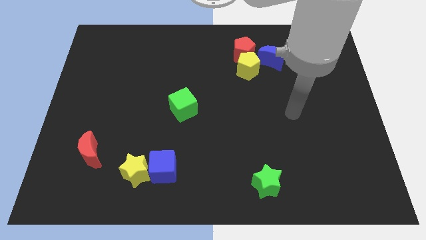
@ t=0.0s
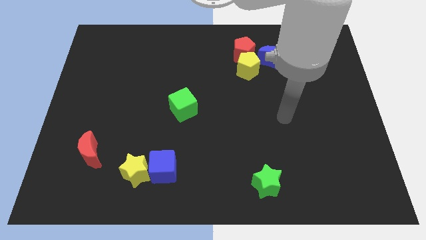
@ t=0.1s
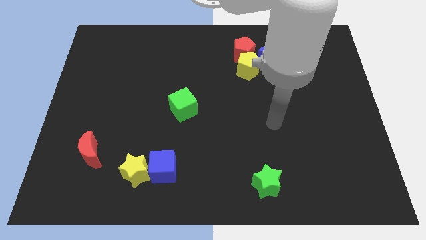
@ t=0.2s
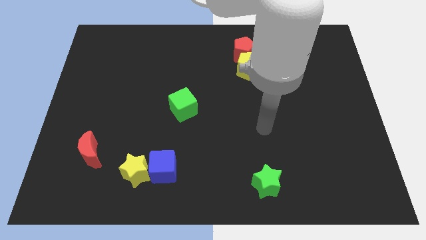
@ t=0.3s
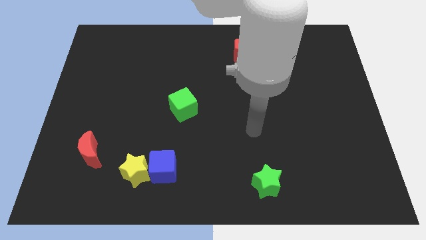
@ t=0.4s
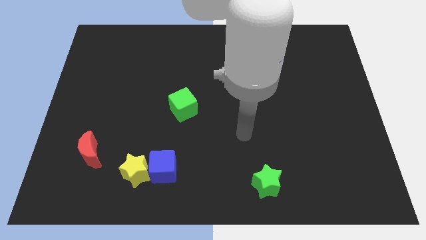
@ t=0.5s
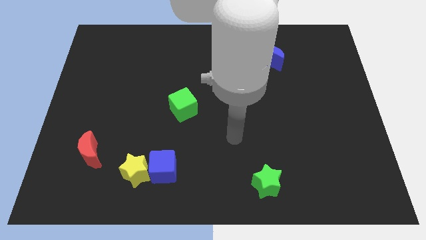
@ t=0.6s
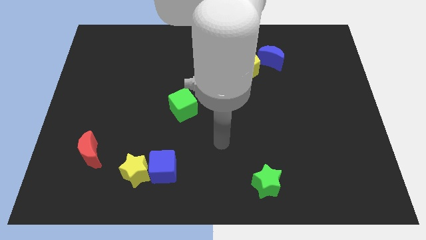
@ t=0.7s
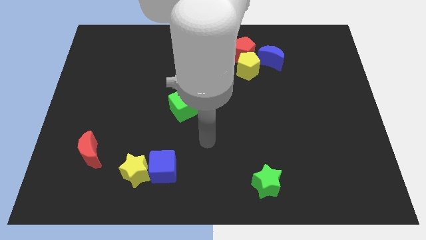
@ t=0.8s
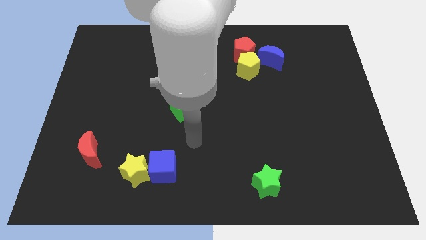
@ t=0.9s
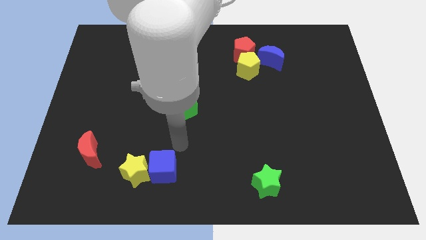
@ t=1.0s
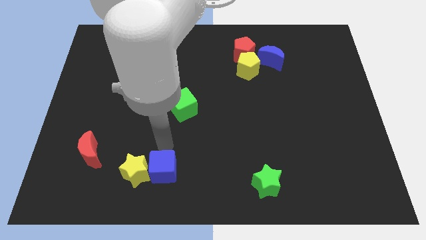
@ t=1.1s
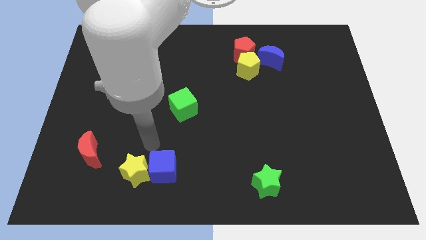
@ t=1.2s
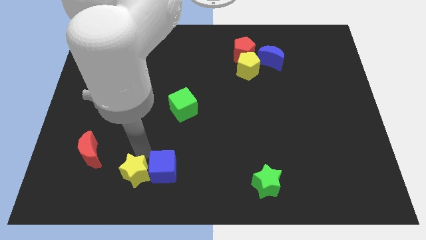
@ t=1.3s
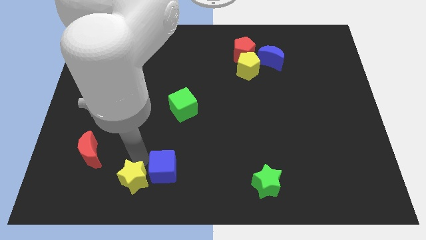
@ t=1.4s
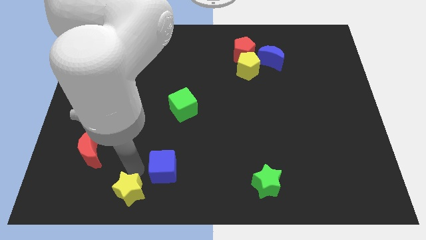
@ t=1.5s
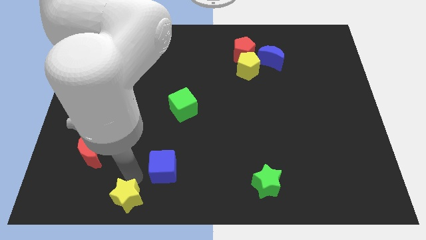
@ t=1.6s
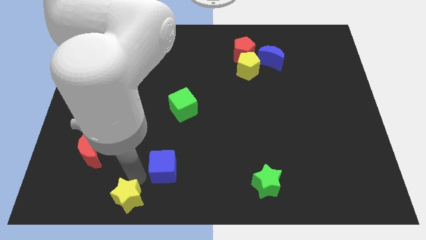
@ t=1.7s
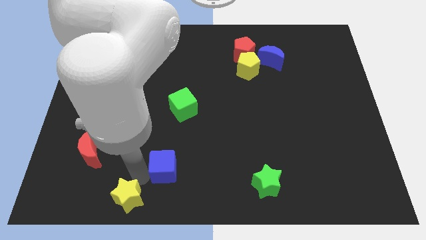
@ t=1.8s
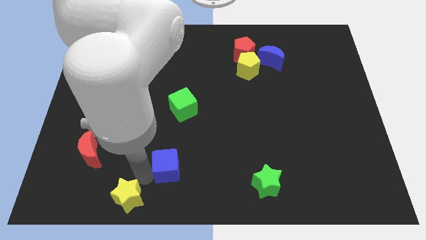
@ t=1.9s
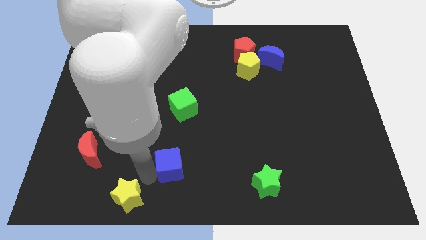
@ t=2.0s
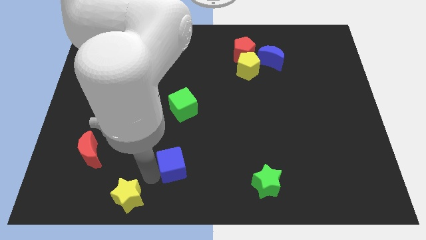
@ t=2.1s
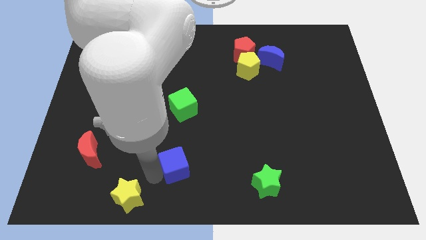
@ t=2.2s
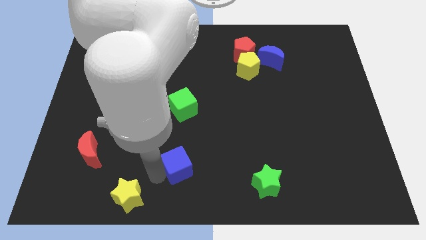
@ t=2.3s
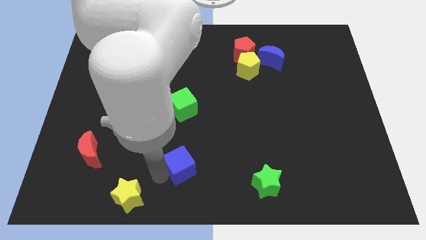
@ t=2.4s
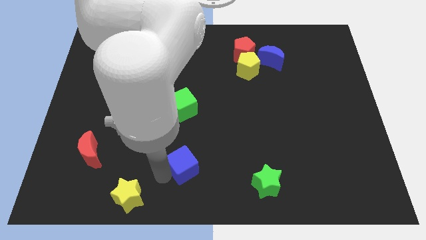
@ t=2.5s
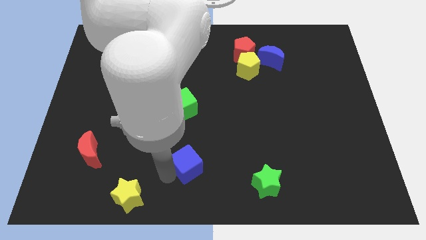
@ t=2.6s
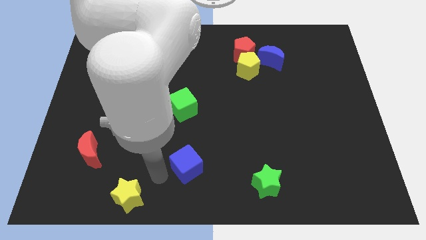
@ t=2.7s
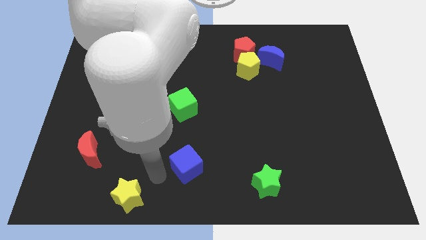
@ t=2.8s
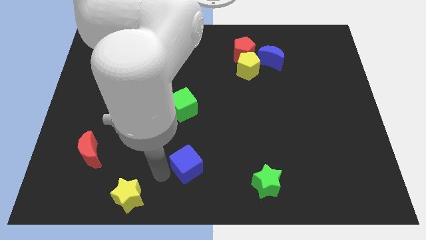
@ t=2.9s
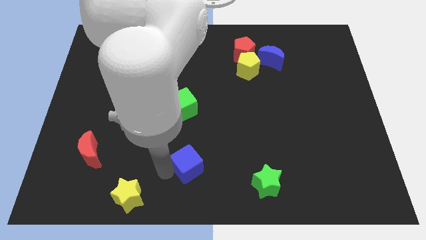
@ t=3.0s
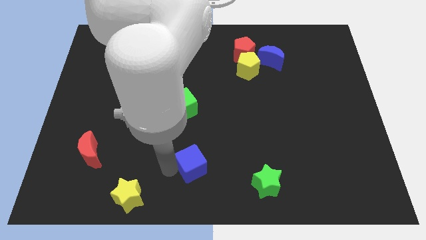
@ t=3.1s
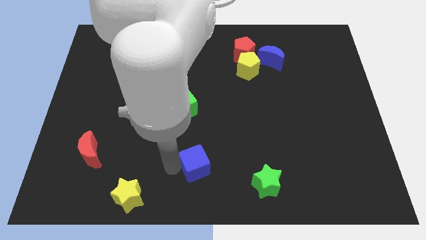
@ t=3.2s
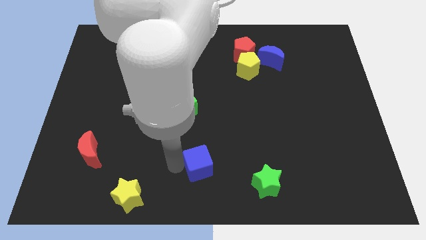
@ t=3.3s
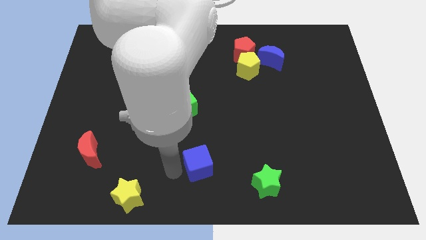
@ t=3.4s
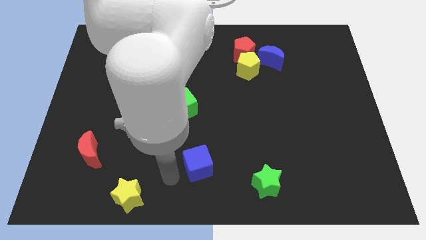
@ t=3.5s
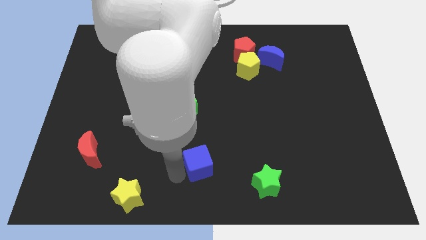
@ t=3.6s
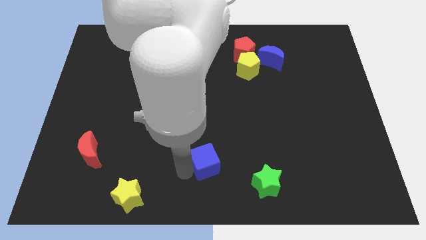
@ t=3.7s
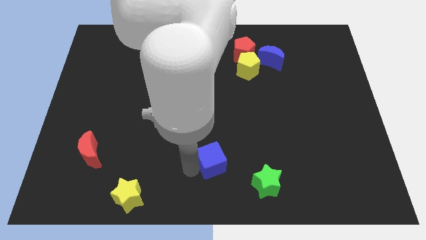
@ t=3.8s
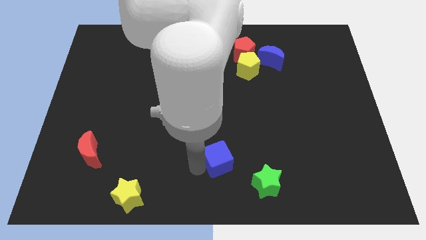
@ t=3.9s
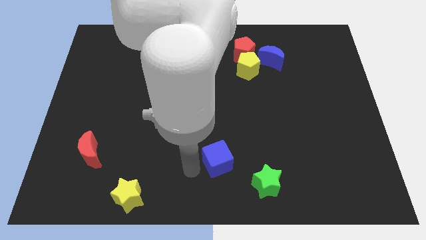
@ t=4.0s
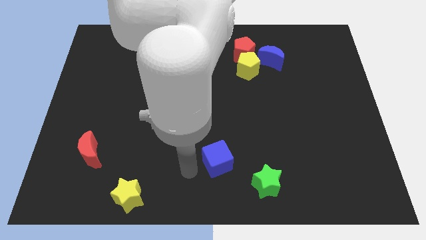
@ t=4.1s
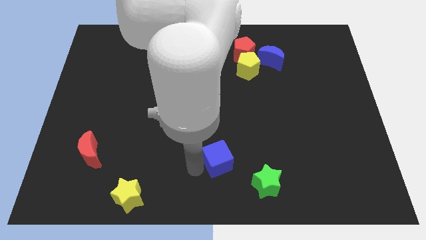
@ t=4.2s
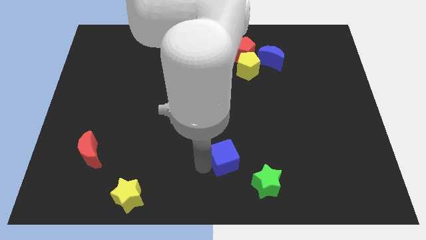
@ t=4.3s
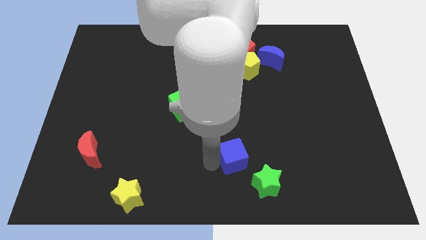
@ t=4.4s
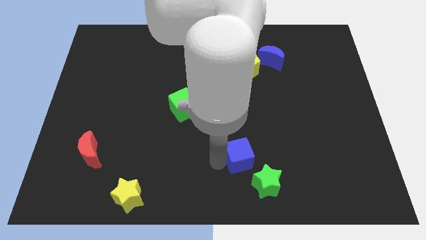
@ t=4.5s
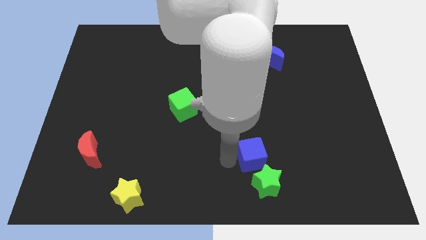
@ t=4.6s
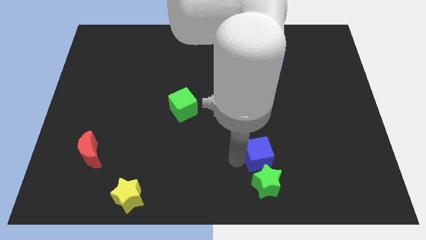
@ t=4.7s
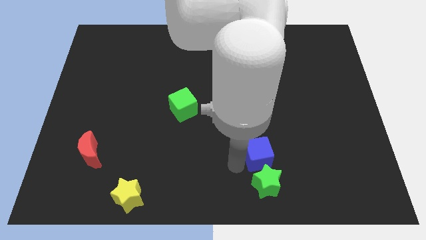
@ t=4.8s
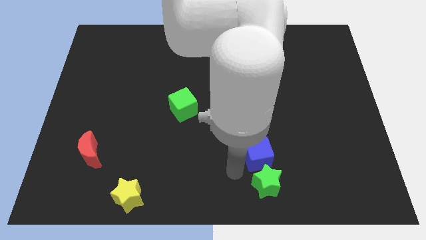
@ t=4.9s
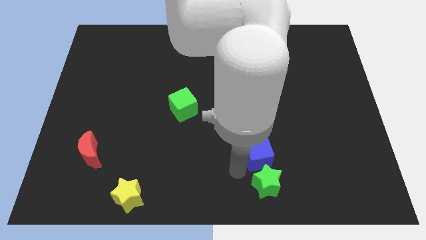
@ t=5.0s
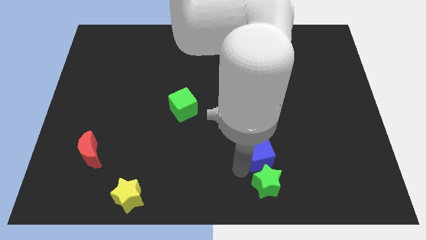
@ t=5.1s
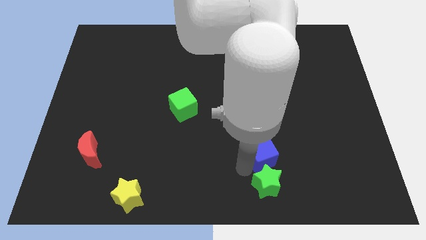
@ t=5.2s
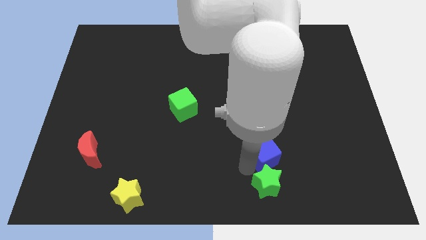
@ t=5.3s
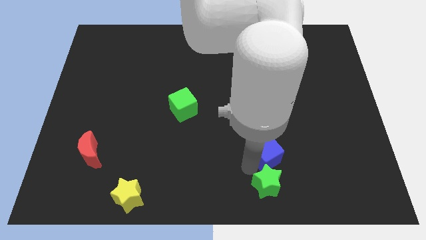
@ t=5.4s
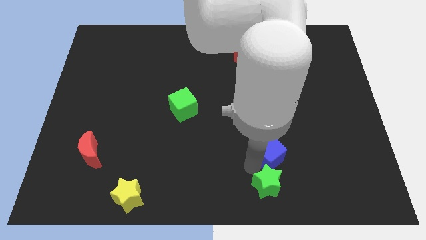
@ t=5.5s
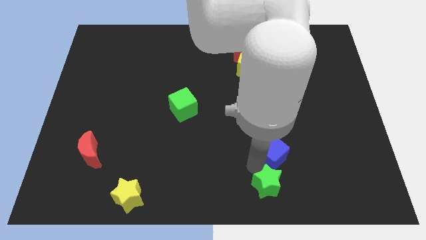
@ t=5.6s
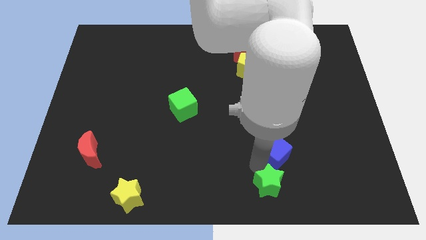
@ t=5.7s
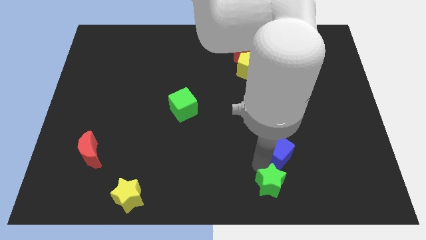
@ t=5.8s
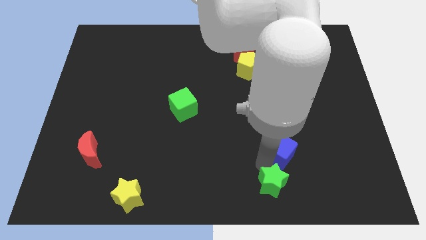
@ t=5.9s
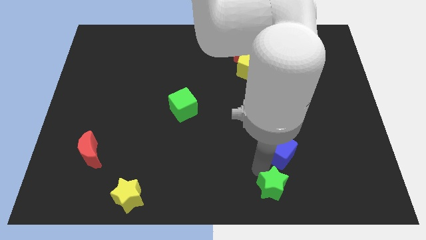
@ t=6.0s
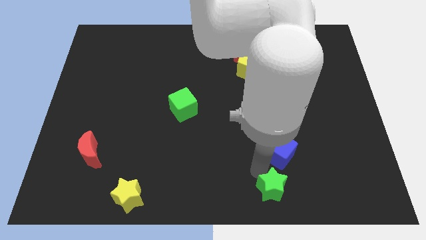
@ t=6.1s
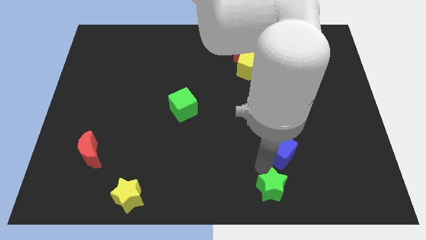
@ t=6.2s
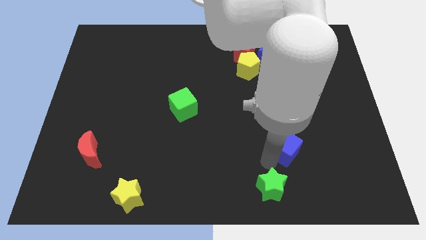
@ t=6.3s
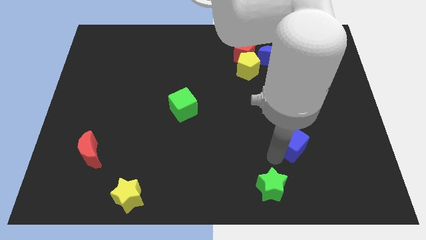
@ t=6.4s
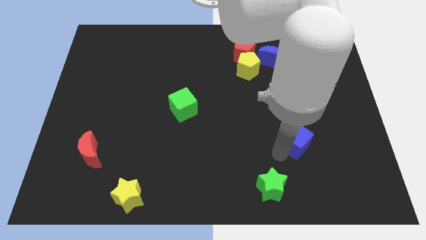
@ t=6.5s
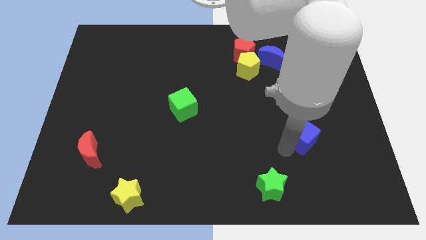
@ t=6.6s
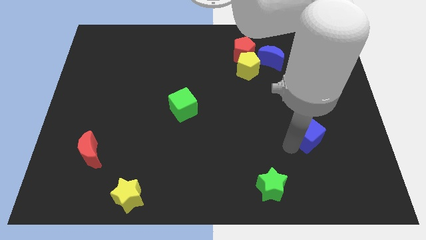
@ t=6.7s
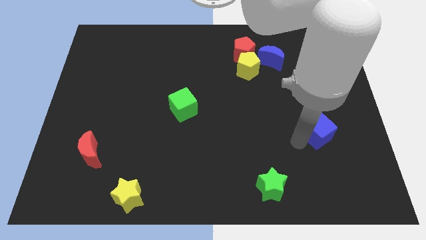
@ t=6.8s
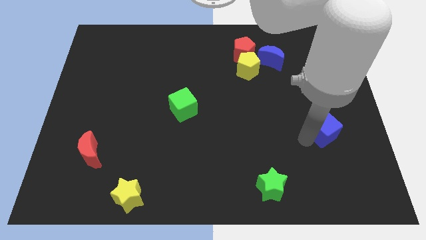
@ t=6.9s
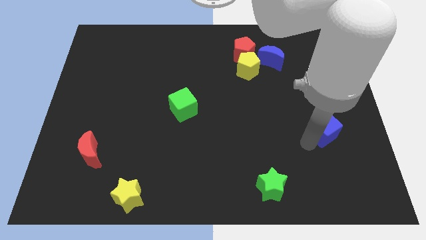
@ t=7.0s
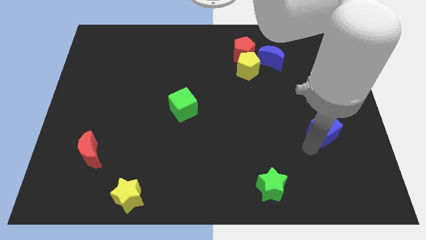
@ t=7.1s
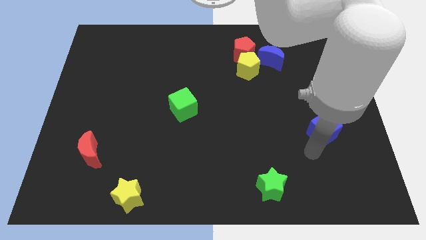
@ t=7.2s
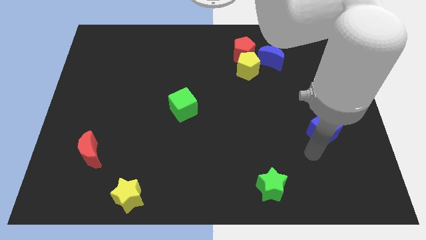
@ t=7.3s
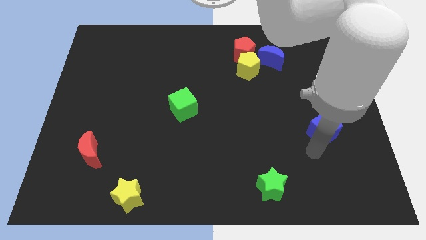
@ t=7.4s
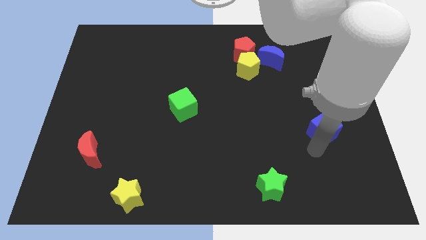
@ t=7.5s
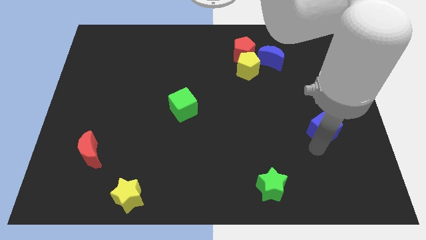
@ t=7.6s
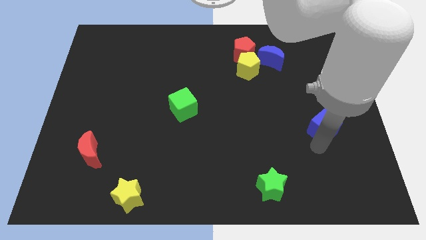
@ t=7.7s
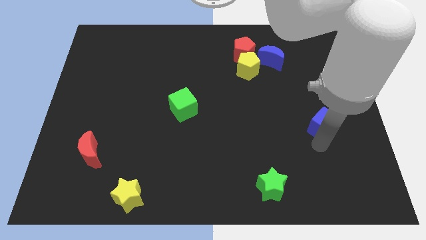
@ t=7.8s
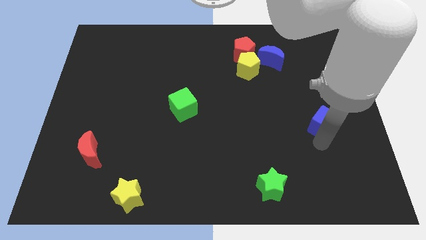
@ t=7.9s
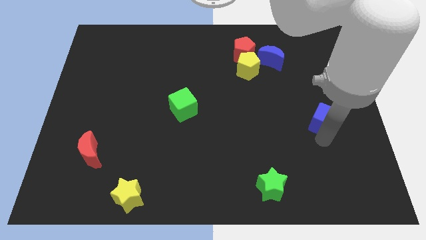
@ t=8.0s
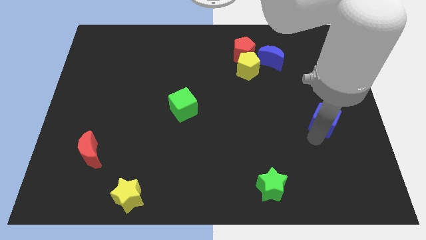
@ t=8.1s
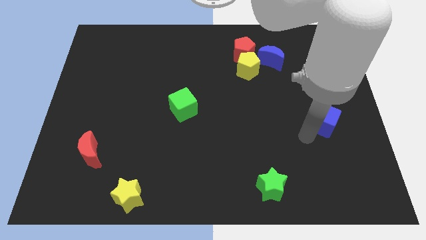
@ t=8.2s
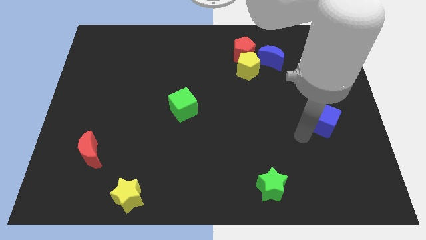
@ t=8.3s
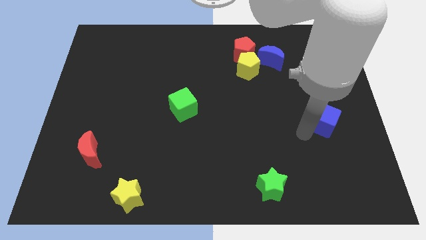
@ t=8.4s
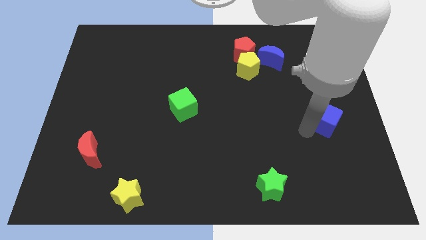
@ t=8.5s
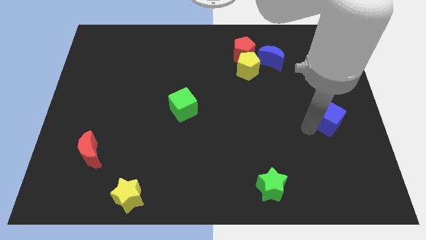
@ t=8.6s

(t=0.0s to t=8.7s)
push the blue cube to the right side of the board
